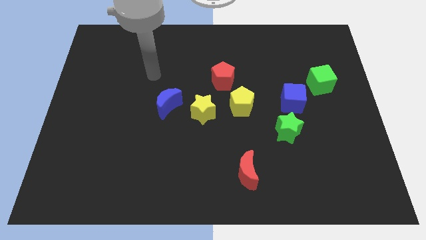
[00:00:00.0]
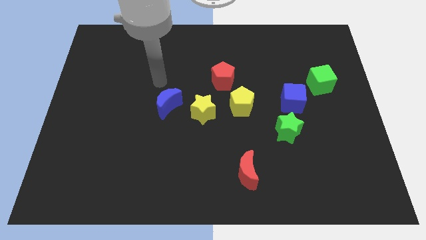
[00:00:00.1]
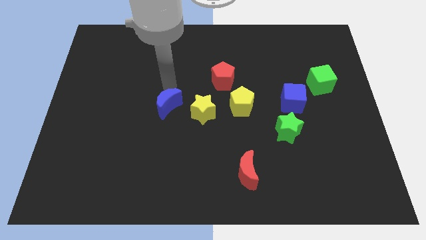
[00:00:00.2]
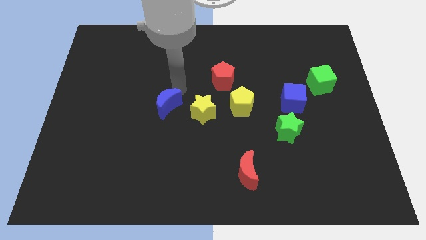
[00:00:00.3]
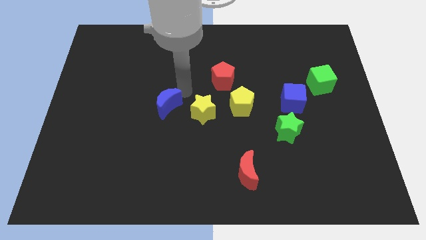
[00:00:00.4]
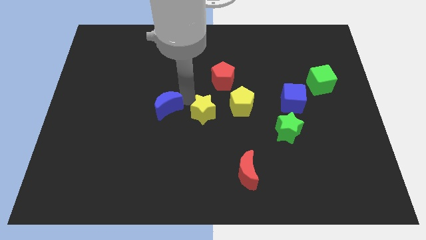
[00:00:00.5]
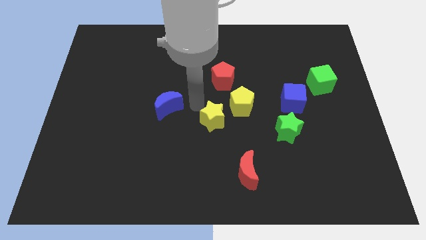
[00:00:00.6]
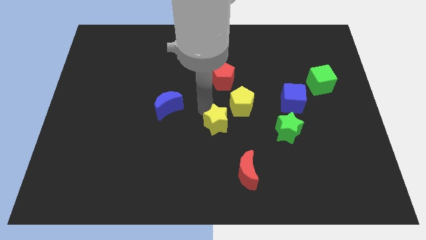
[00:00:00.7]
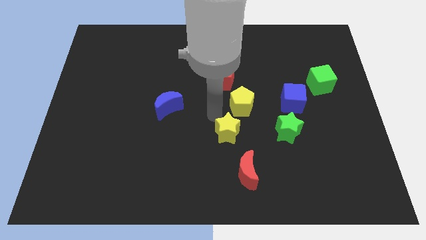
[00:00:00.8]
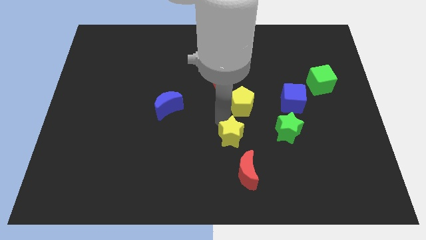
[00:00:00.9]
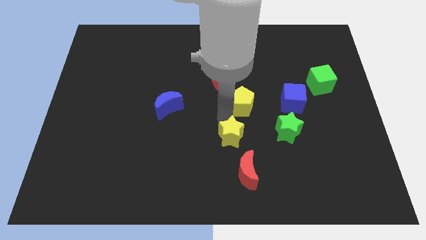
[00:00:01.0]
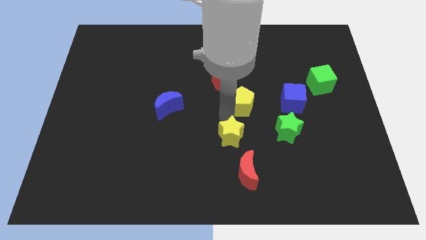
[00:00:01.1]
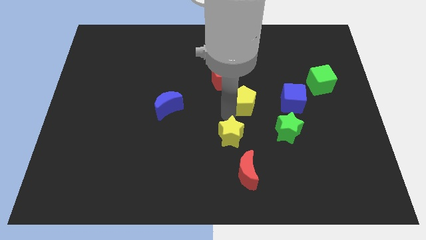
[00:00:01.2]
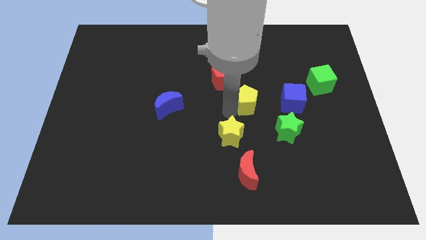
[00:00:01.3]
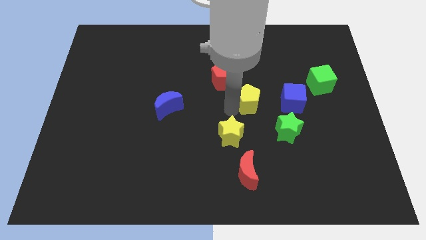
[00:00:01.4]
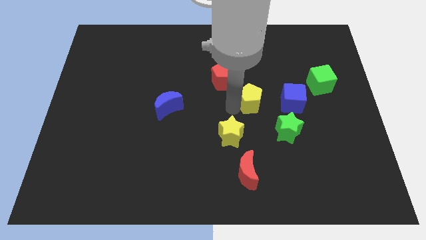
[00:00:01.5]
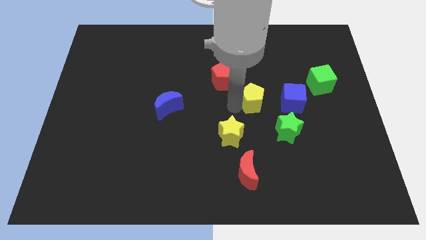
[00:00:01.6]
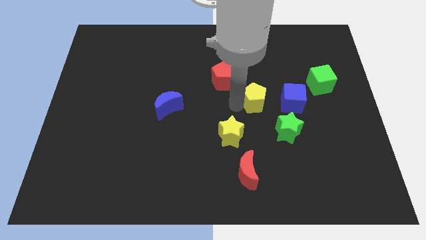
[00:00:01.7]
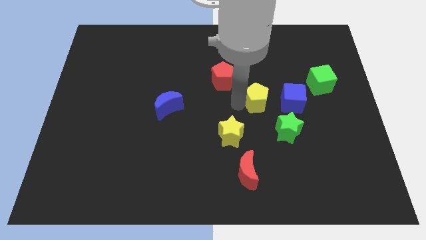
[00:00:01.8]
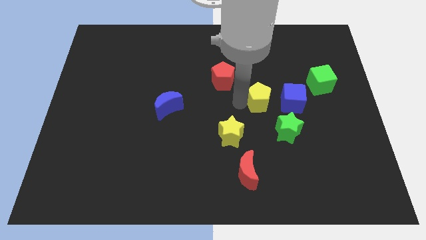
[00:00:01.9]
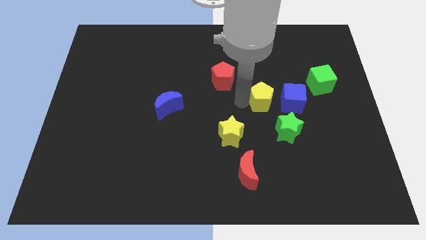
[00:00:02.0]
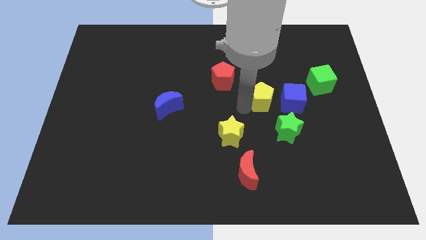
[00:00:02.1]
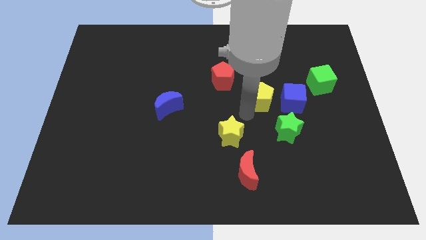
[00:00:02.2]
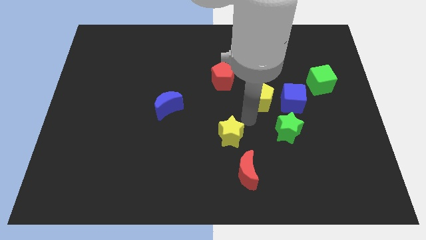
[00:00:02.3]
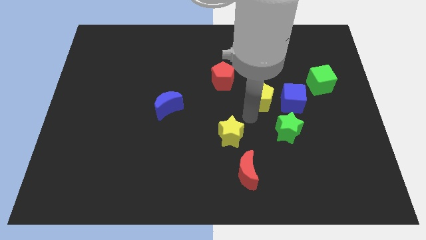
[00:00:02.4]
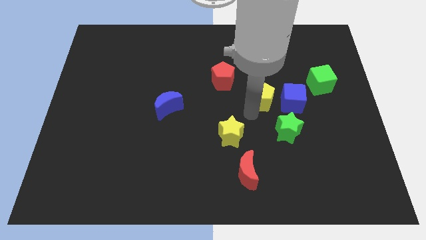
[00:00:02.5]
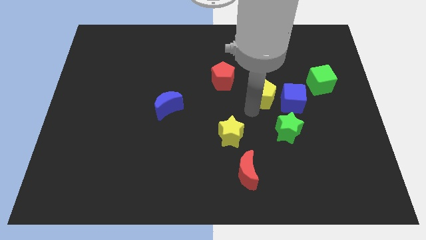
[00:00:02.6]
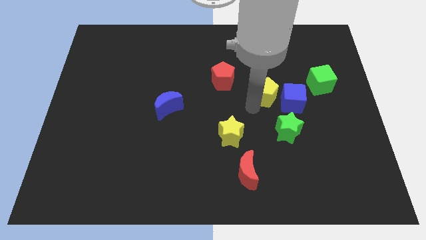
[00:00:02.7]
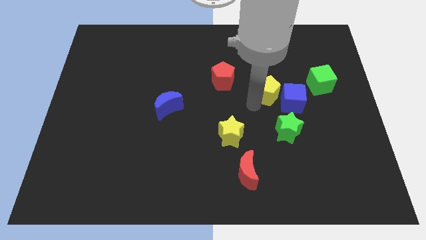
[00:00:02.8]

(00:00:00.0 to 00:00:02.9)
slightly push the yellow pentagon diagonally up and to the right

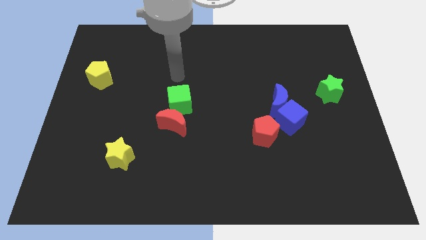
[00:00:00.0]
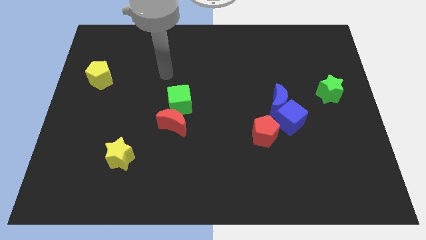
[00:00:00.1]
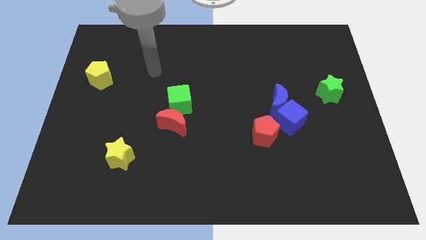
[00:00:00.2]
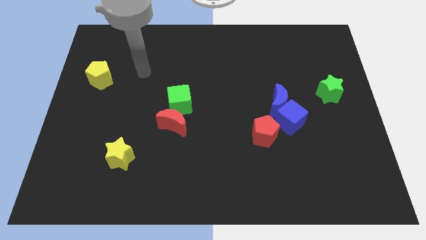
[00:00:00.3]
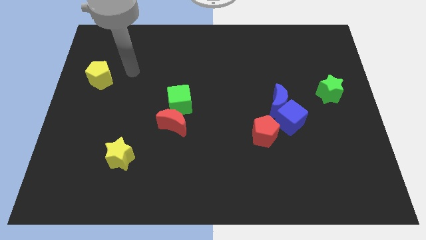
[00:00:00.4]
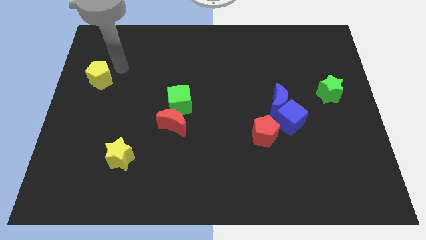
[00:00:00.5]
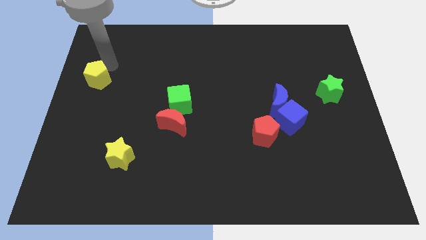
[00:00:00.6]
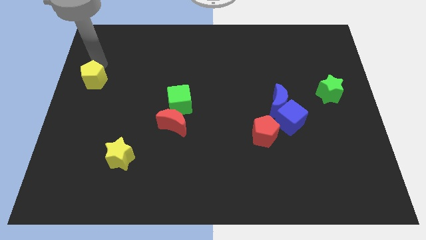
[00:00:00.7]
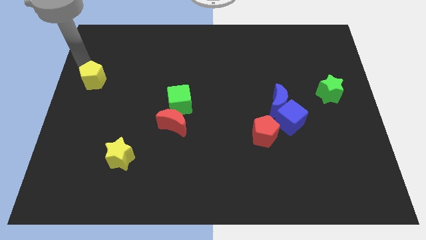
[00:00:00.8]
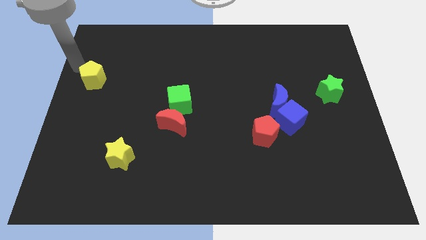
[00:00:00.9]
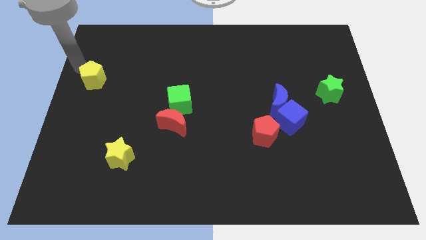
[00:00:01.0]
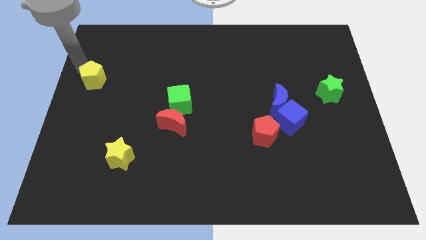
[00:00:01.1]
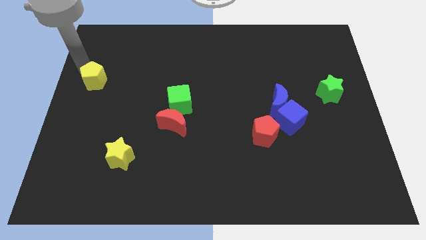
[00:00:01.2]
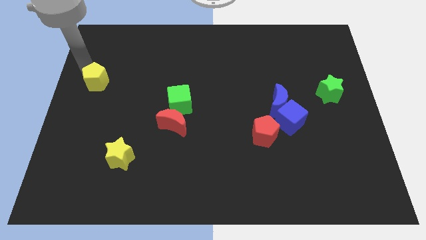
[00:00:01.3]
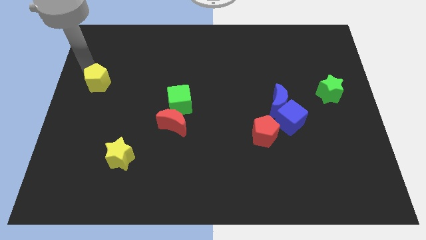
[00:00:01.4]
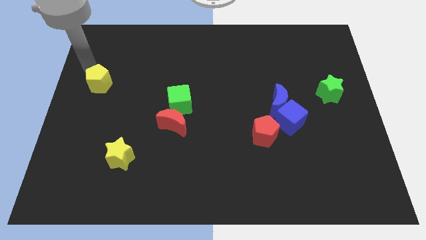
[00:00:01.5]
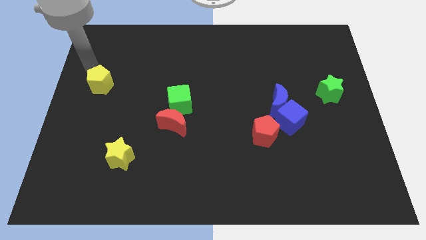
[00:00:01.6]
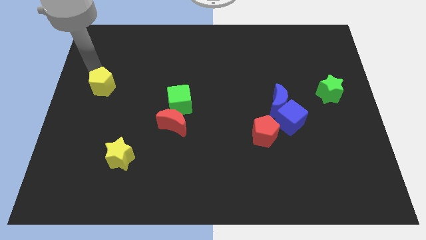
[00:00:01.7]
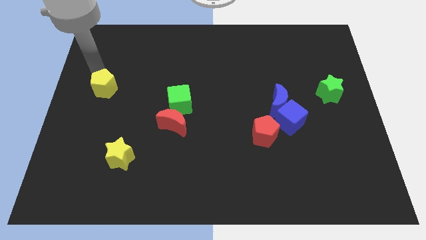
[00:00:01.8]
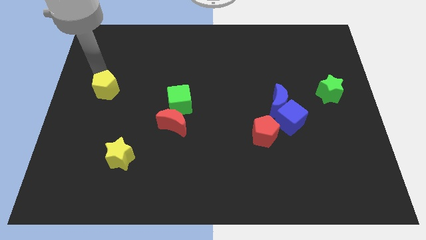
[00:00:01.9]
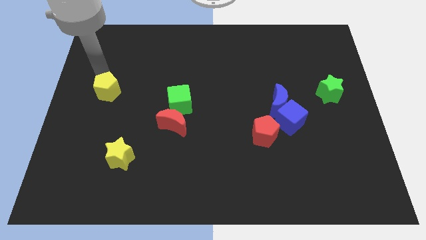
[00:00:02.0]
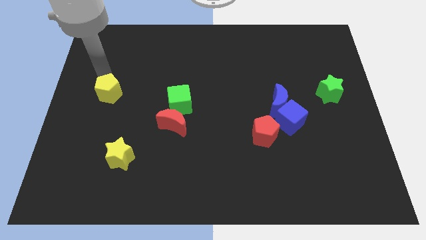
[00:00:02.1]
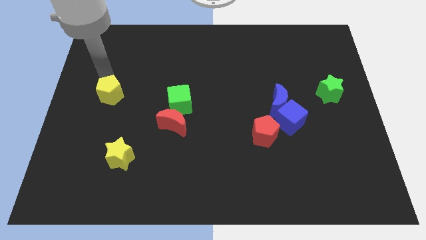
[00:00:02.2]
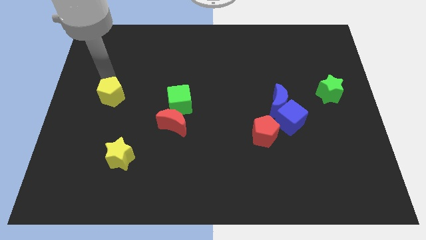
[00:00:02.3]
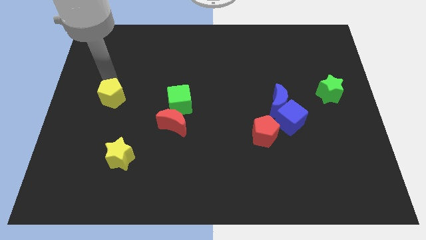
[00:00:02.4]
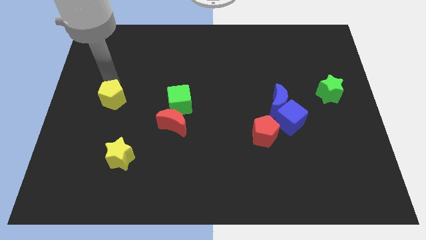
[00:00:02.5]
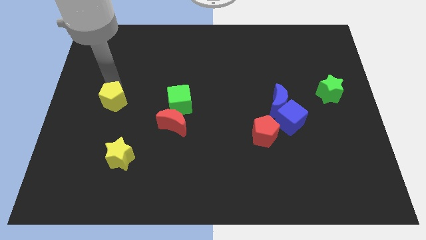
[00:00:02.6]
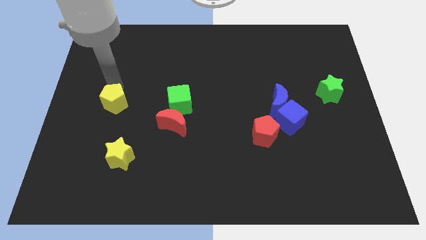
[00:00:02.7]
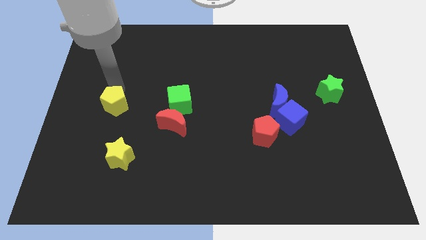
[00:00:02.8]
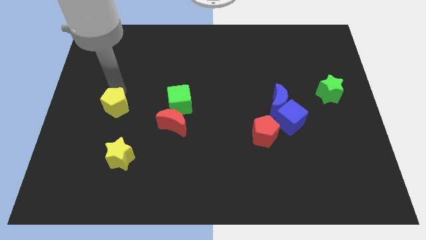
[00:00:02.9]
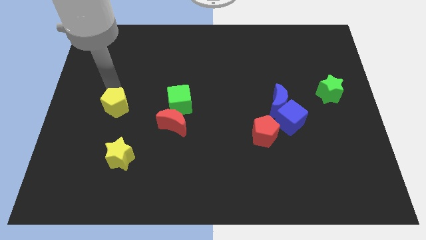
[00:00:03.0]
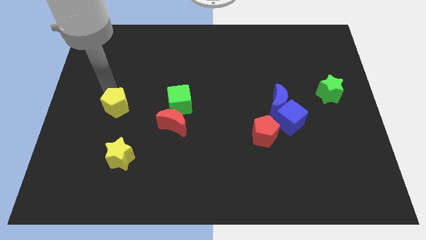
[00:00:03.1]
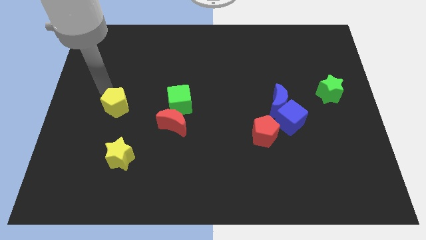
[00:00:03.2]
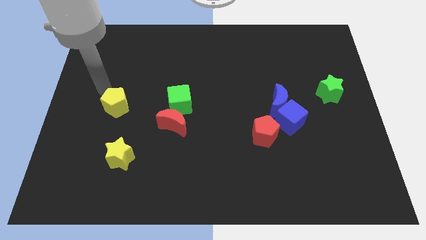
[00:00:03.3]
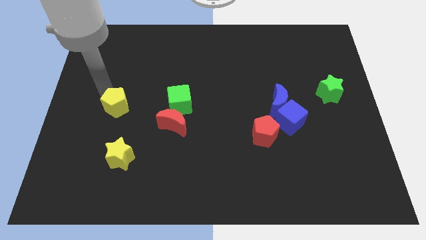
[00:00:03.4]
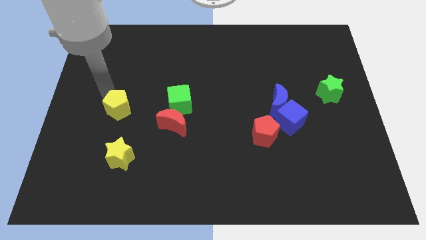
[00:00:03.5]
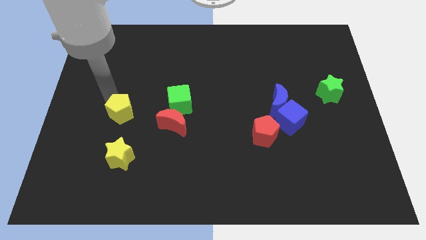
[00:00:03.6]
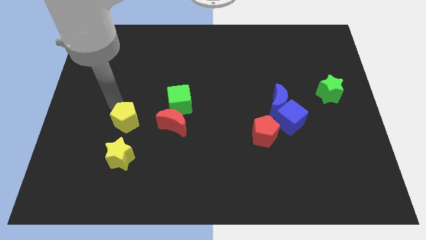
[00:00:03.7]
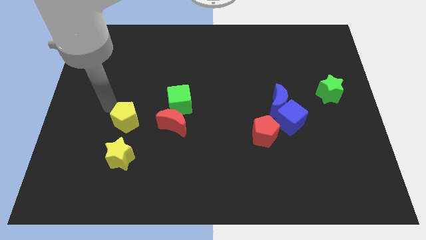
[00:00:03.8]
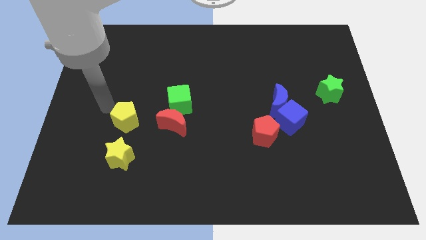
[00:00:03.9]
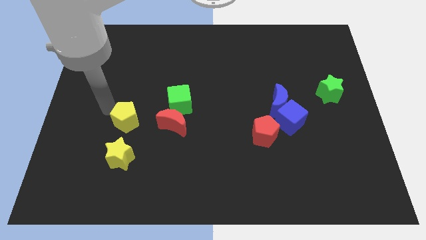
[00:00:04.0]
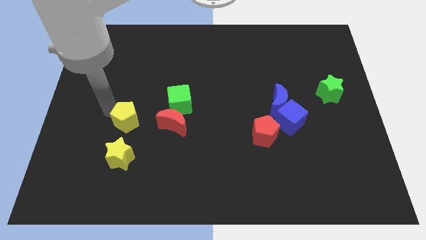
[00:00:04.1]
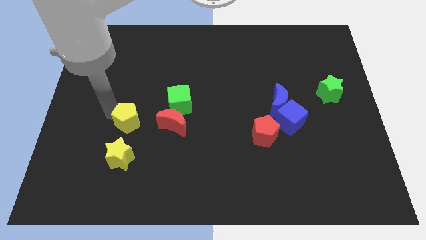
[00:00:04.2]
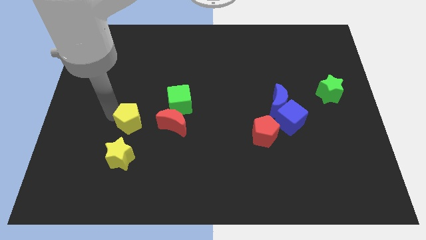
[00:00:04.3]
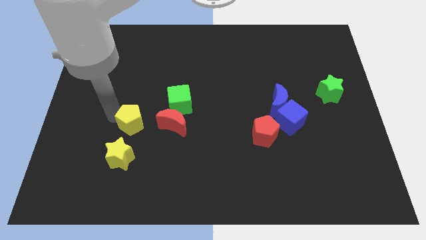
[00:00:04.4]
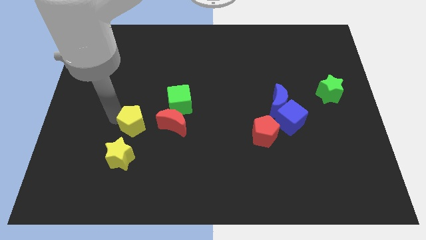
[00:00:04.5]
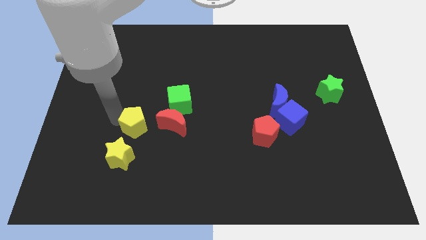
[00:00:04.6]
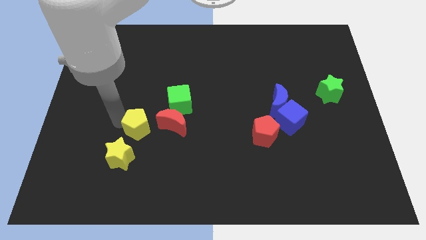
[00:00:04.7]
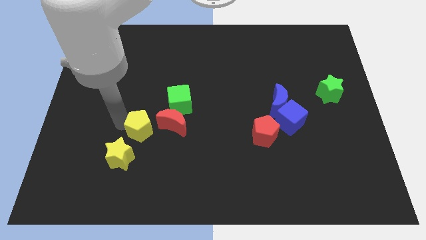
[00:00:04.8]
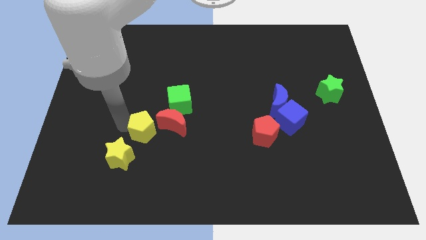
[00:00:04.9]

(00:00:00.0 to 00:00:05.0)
slide the yellow pentagon diagonally down and right
